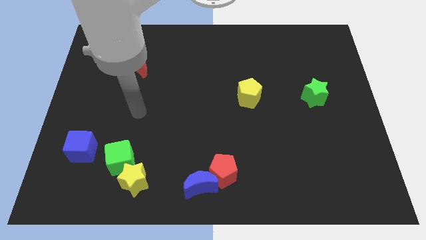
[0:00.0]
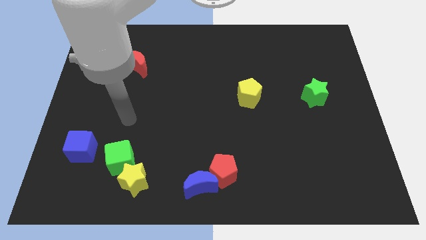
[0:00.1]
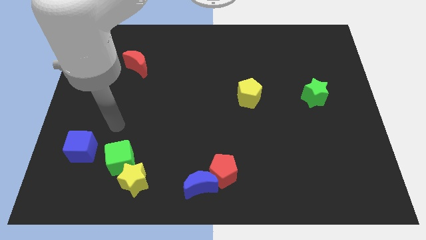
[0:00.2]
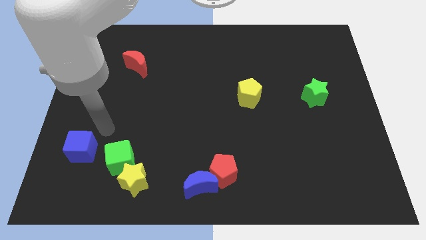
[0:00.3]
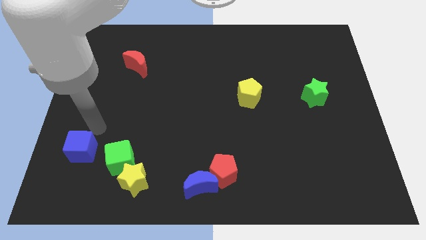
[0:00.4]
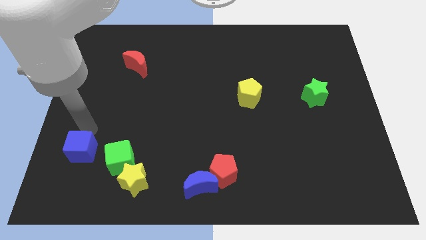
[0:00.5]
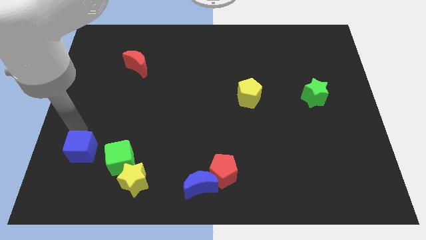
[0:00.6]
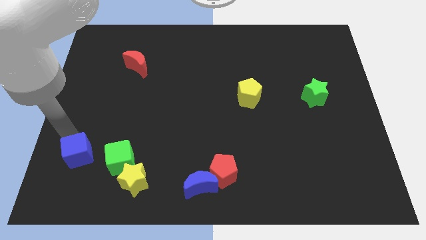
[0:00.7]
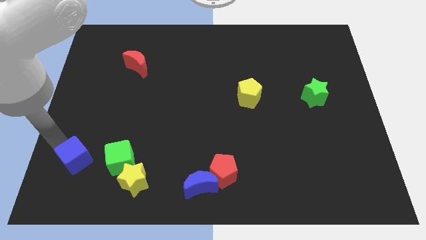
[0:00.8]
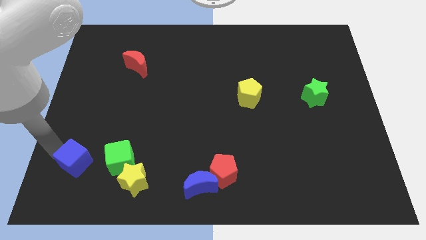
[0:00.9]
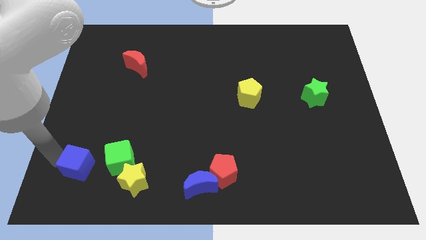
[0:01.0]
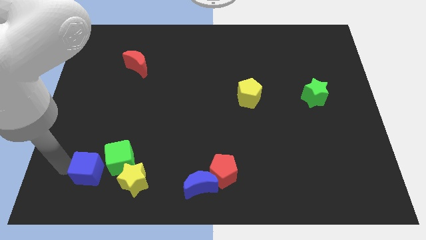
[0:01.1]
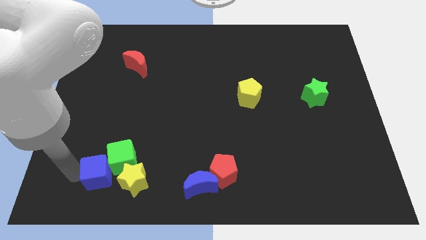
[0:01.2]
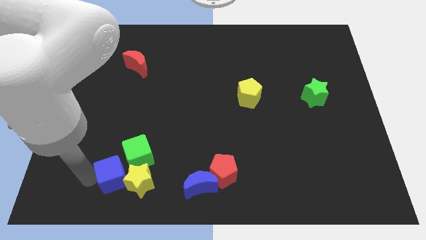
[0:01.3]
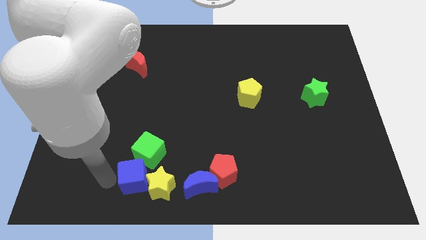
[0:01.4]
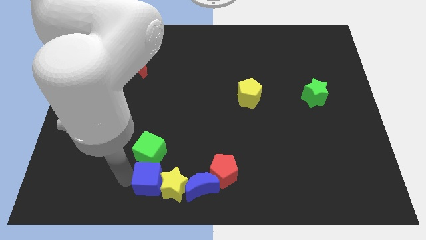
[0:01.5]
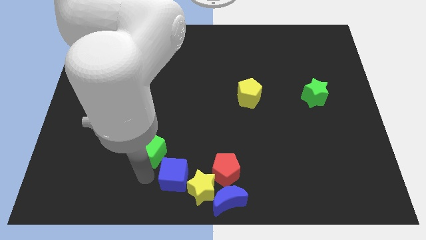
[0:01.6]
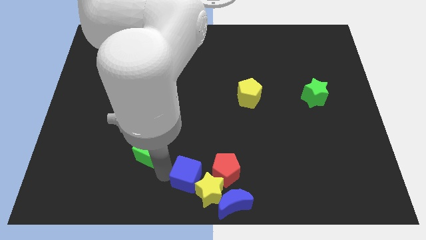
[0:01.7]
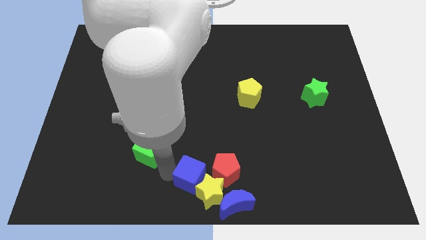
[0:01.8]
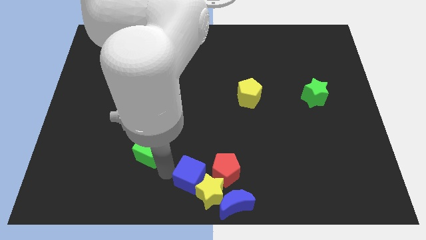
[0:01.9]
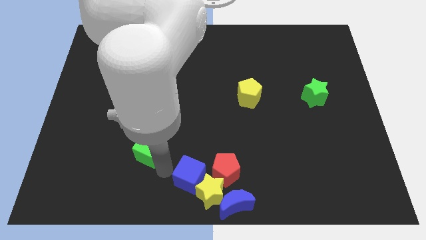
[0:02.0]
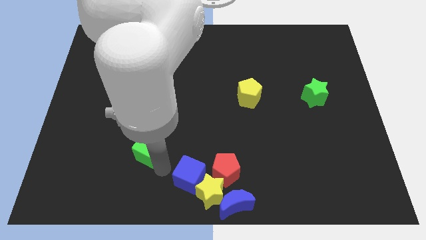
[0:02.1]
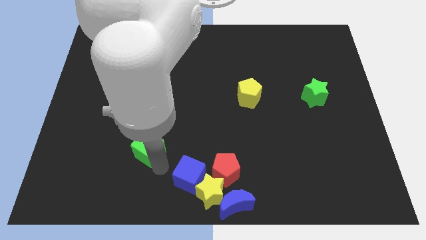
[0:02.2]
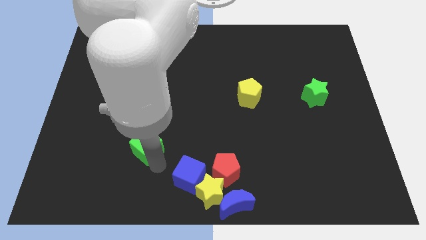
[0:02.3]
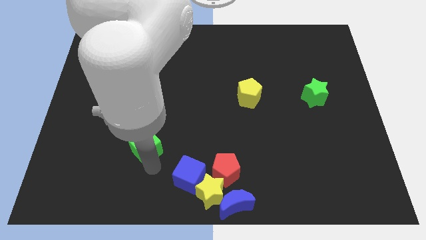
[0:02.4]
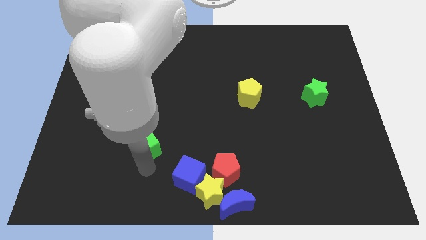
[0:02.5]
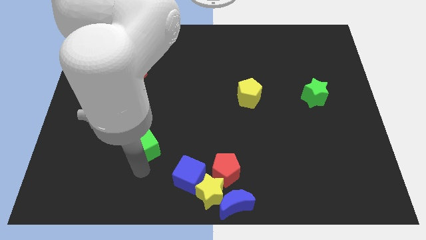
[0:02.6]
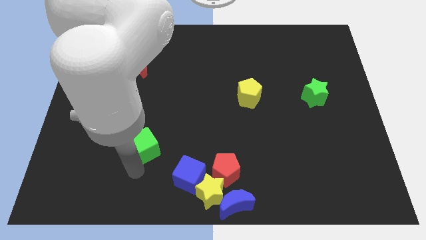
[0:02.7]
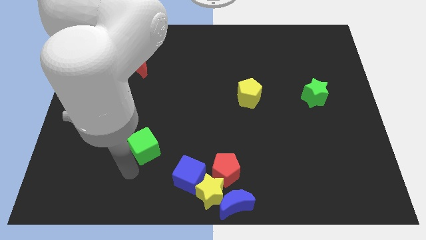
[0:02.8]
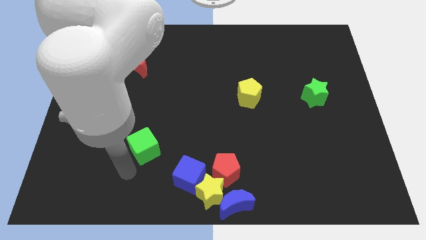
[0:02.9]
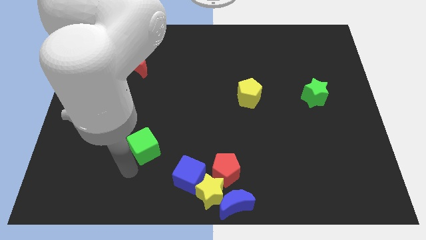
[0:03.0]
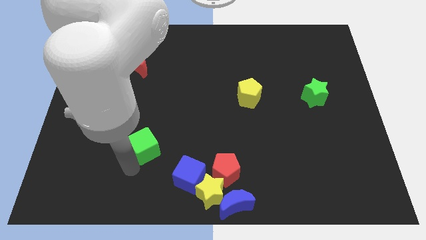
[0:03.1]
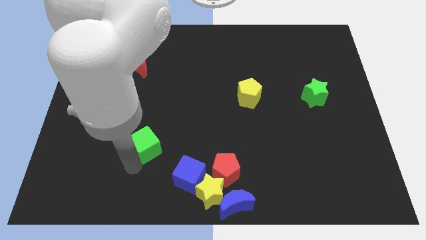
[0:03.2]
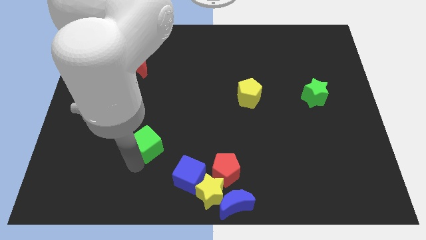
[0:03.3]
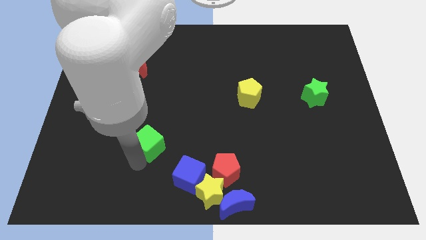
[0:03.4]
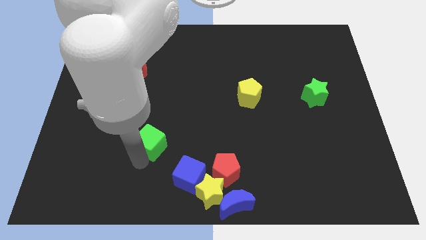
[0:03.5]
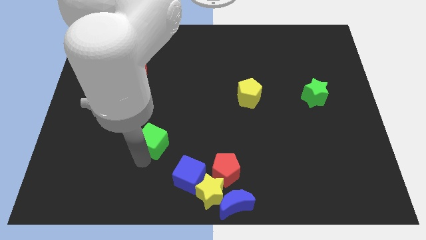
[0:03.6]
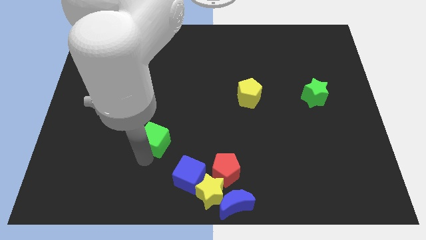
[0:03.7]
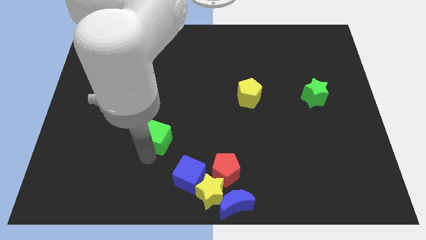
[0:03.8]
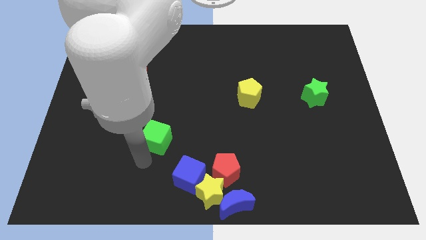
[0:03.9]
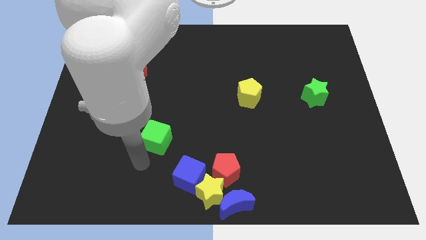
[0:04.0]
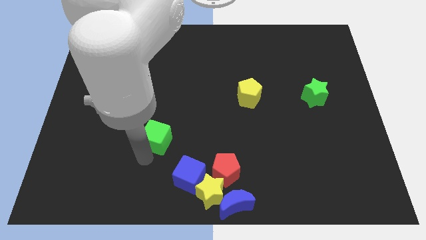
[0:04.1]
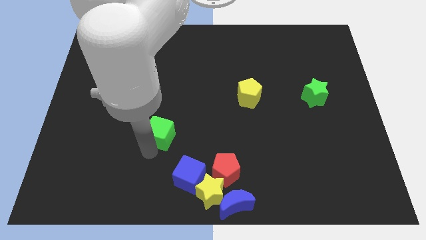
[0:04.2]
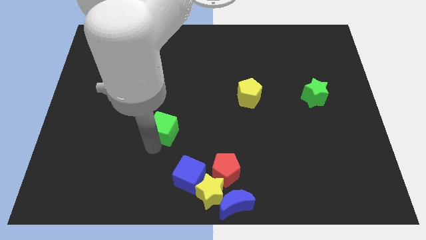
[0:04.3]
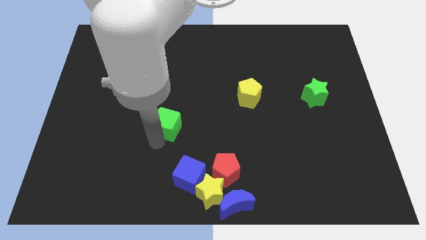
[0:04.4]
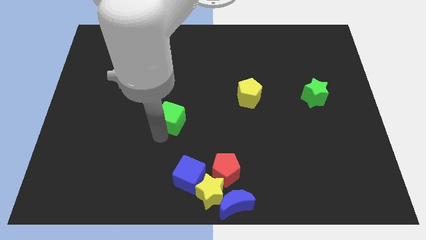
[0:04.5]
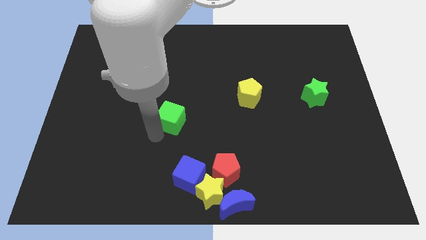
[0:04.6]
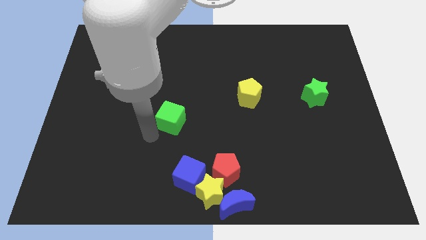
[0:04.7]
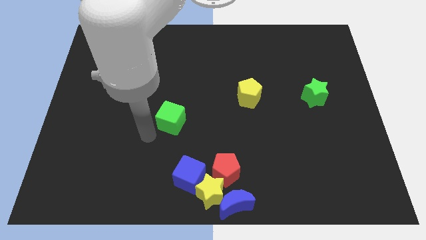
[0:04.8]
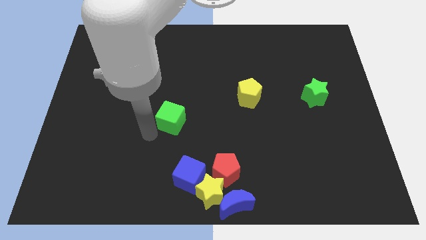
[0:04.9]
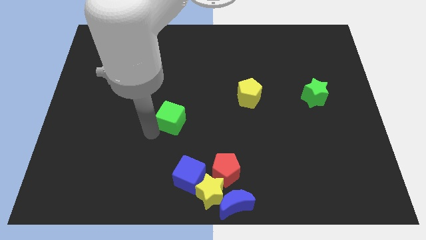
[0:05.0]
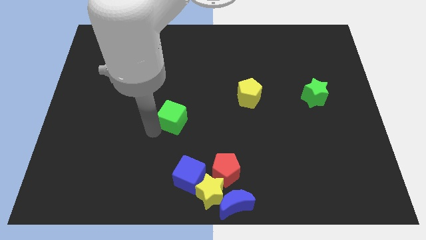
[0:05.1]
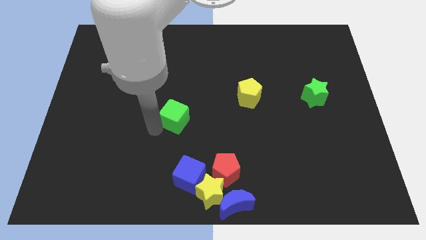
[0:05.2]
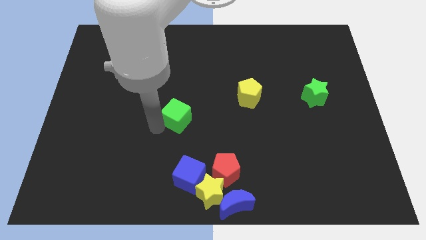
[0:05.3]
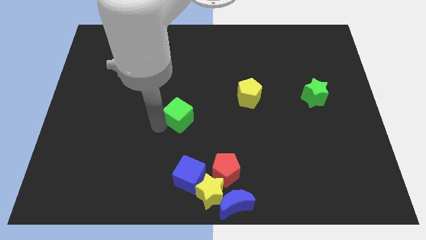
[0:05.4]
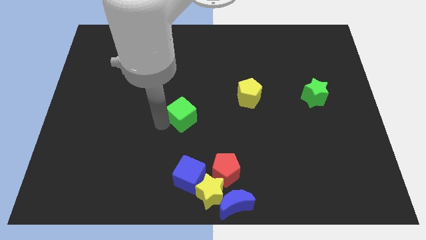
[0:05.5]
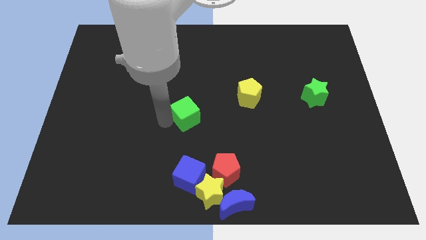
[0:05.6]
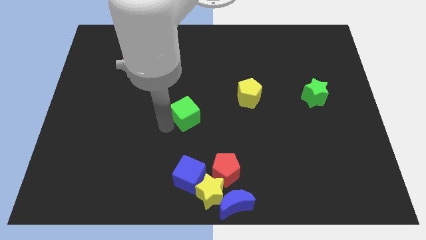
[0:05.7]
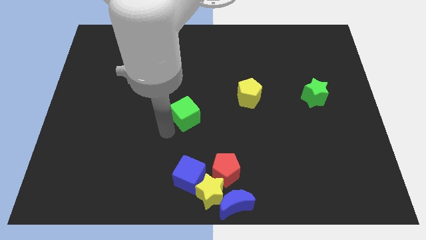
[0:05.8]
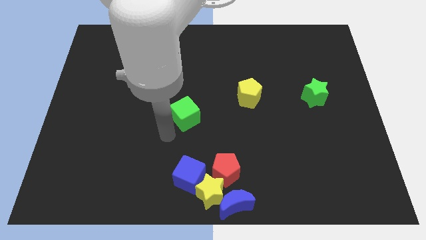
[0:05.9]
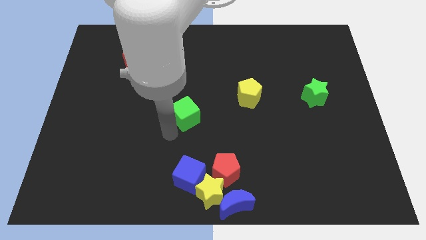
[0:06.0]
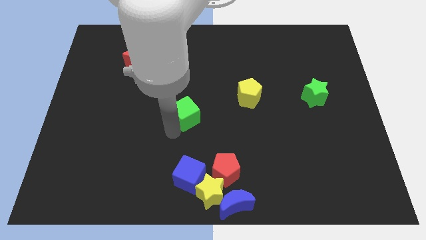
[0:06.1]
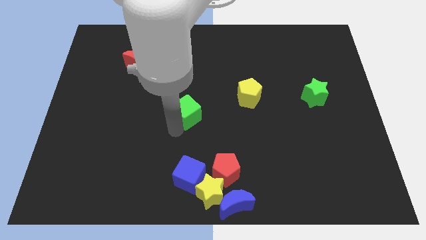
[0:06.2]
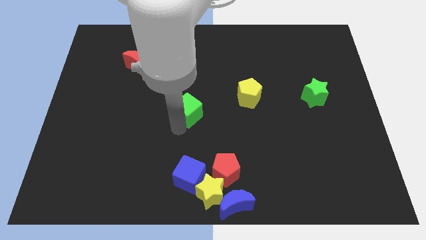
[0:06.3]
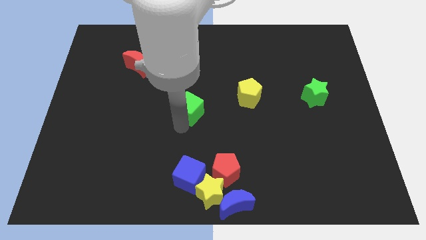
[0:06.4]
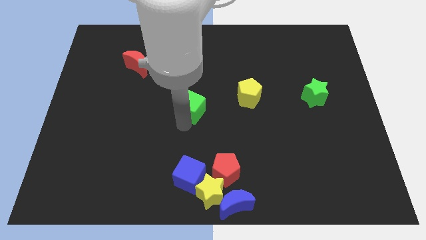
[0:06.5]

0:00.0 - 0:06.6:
put the green cube just left of the yellow pentagon

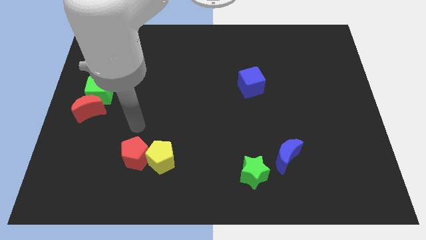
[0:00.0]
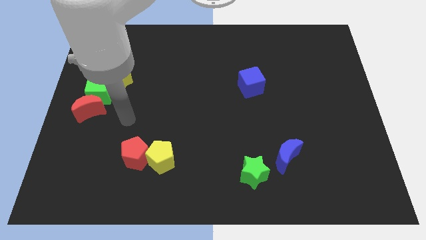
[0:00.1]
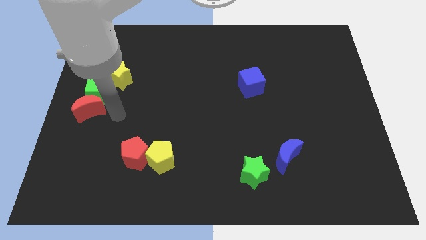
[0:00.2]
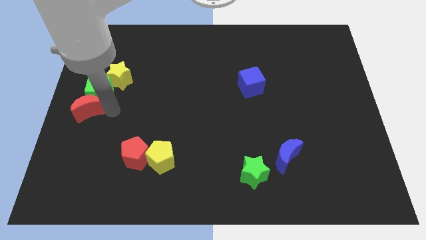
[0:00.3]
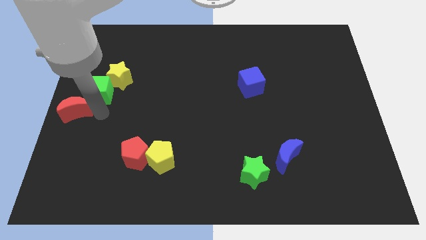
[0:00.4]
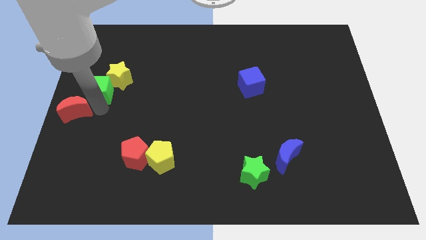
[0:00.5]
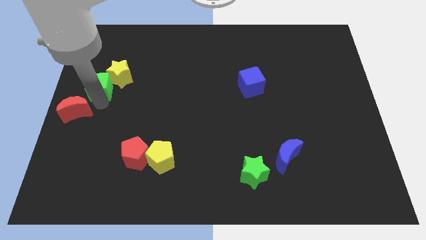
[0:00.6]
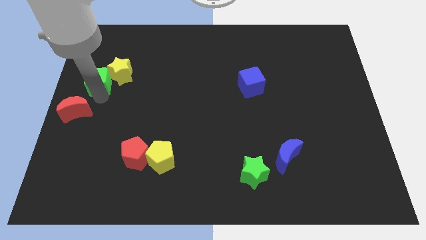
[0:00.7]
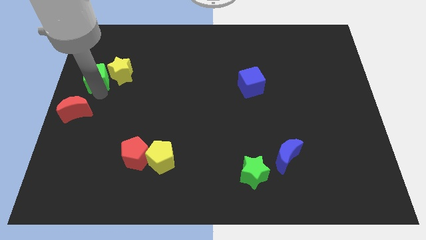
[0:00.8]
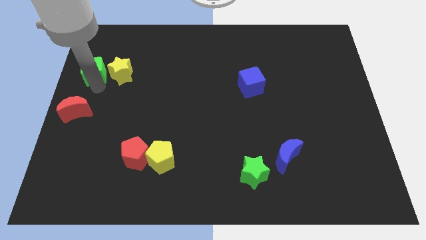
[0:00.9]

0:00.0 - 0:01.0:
push the green cube to the top left side of the yellow star
